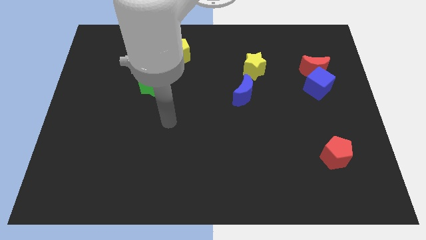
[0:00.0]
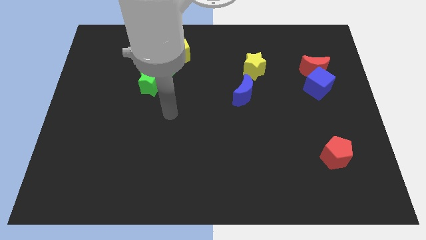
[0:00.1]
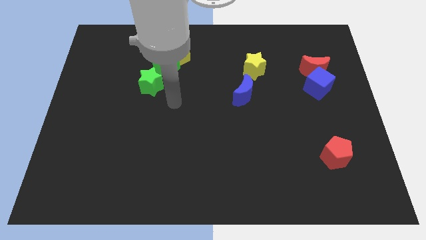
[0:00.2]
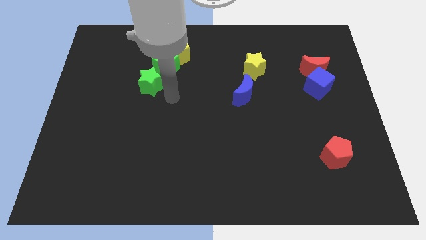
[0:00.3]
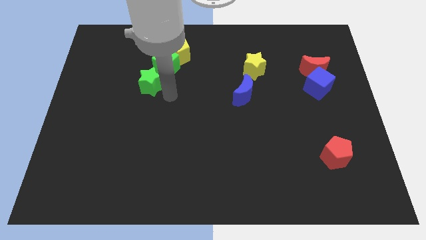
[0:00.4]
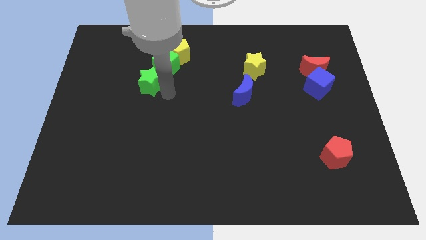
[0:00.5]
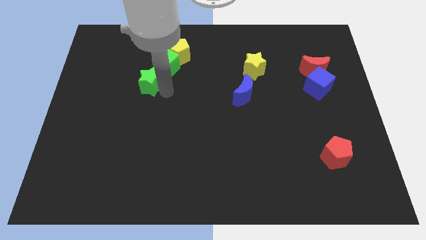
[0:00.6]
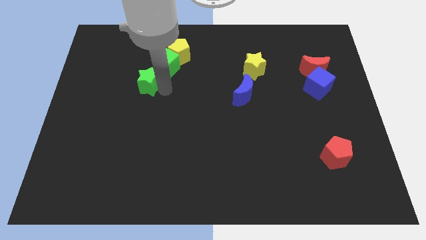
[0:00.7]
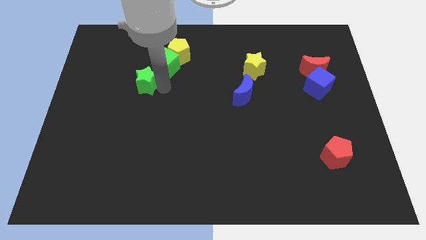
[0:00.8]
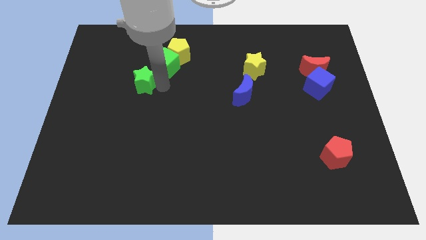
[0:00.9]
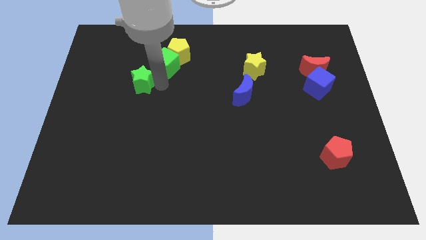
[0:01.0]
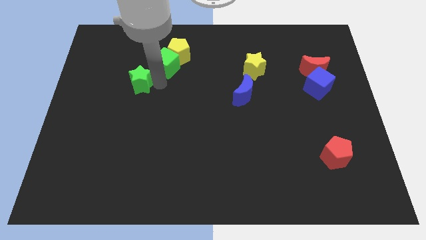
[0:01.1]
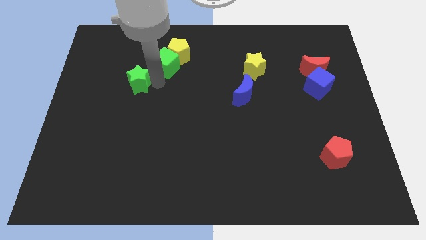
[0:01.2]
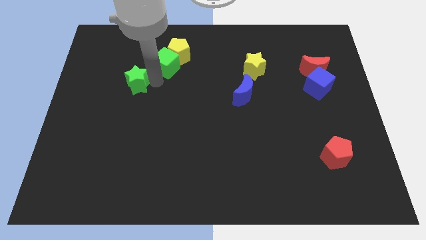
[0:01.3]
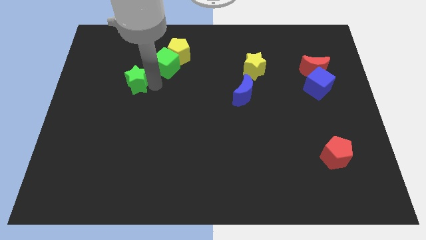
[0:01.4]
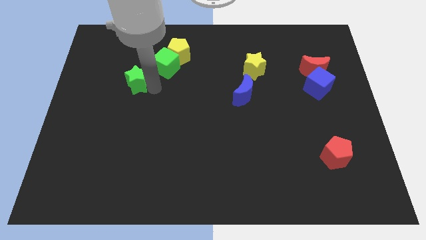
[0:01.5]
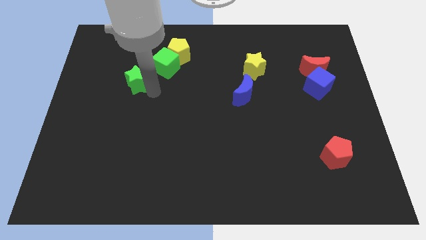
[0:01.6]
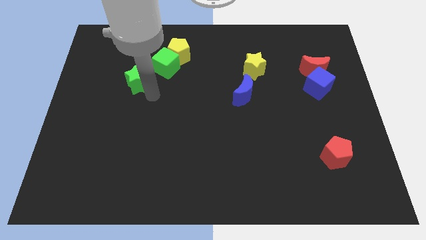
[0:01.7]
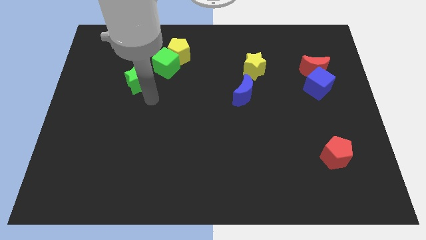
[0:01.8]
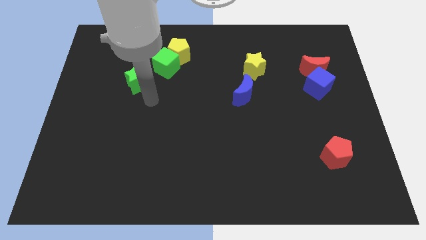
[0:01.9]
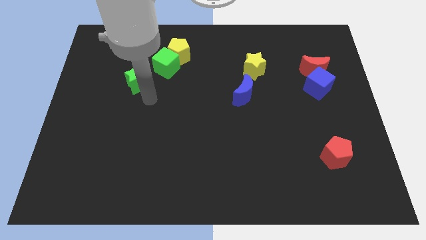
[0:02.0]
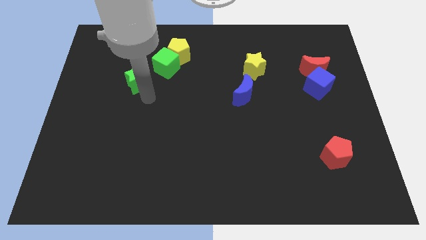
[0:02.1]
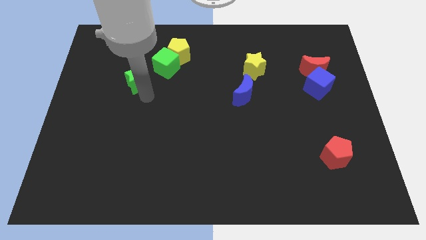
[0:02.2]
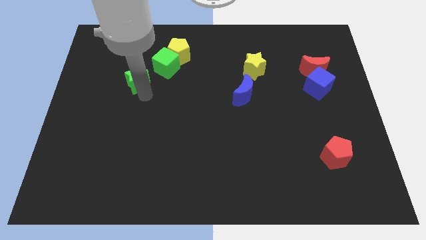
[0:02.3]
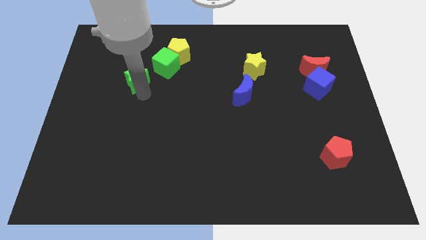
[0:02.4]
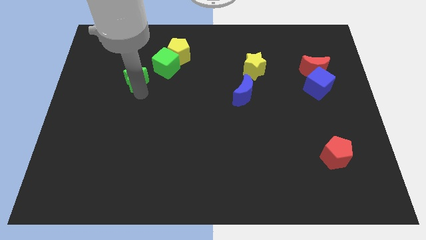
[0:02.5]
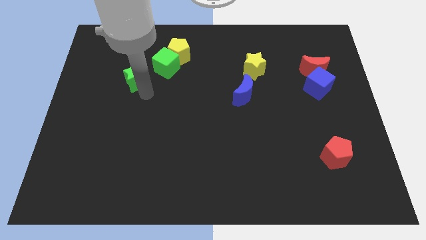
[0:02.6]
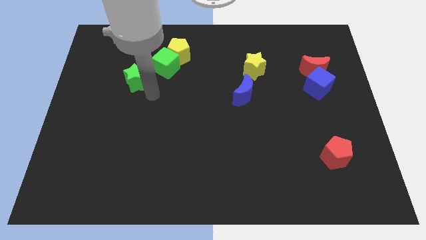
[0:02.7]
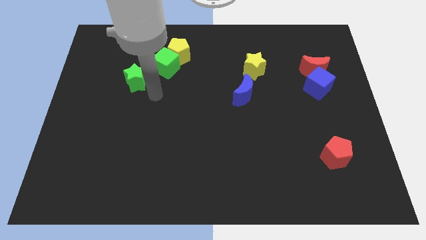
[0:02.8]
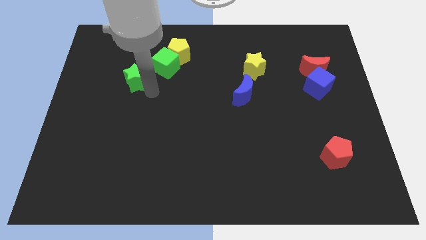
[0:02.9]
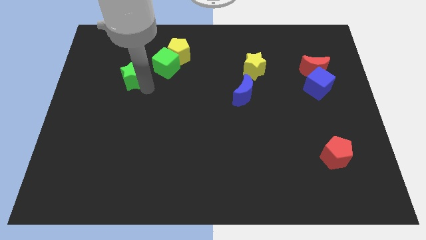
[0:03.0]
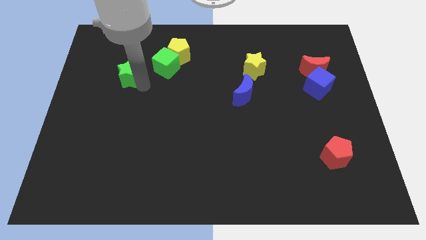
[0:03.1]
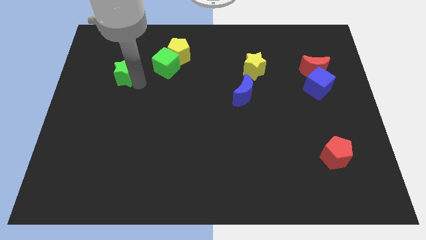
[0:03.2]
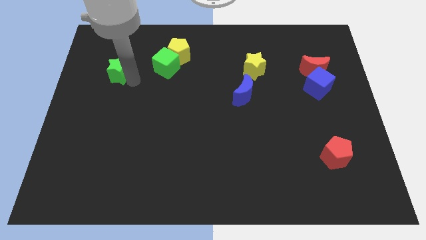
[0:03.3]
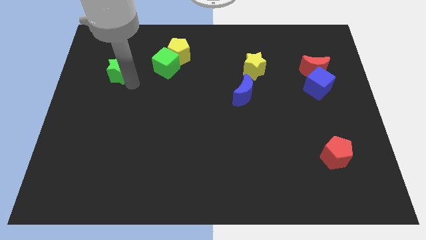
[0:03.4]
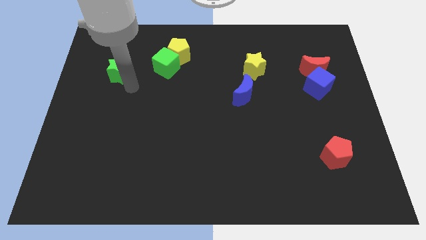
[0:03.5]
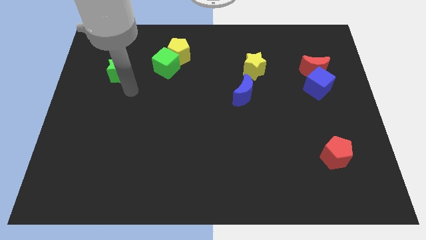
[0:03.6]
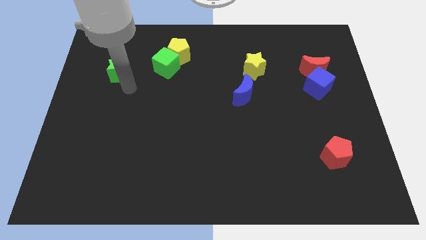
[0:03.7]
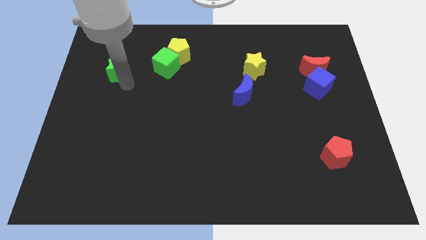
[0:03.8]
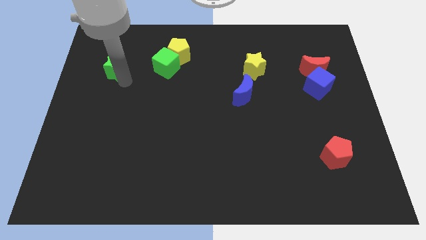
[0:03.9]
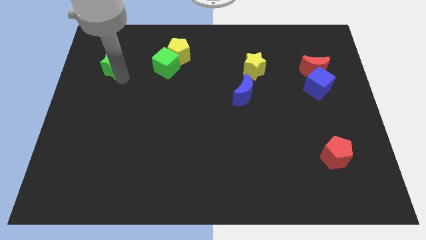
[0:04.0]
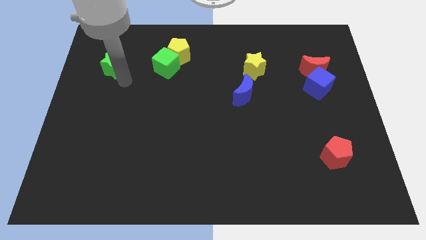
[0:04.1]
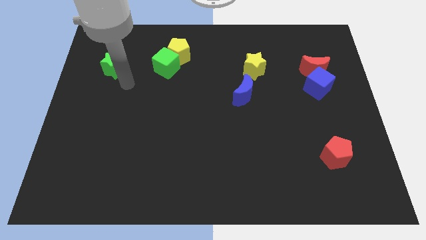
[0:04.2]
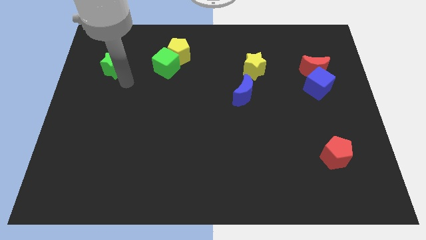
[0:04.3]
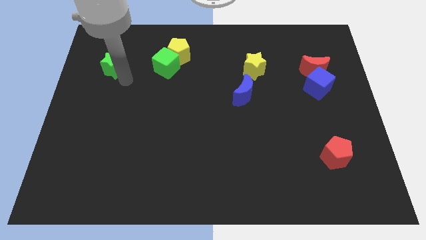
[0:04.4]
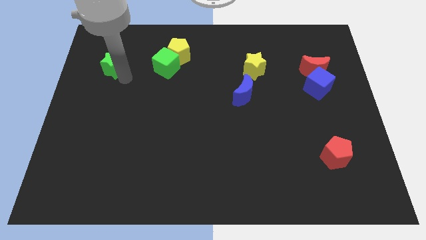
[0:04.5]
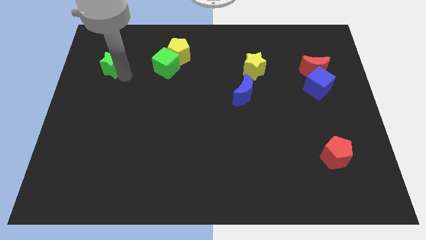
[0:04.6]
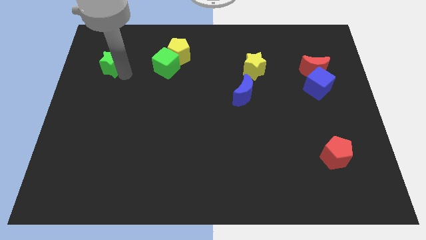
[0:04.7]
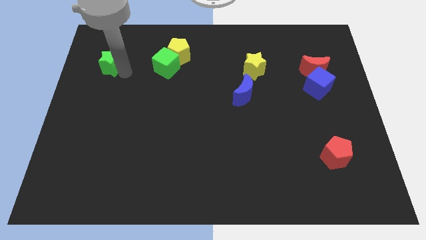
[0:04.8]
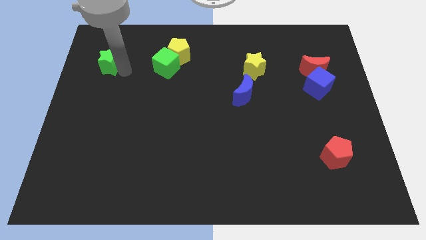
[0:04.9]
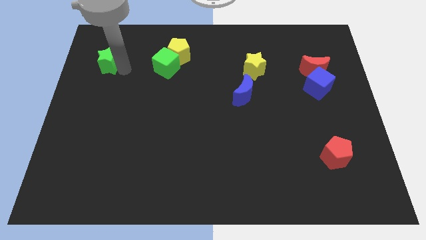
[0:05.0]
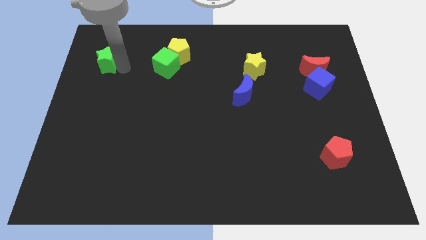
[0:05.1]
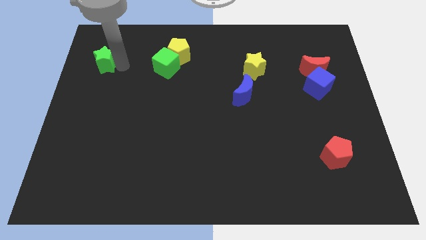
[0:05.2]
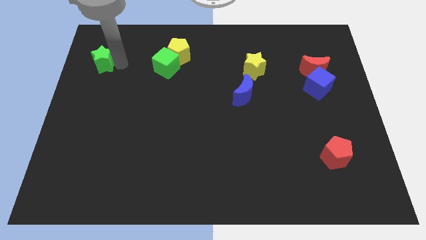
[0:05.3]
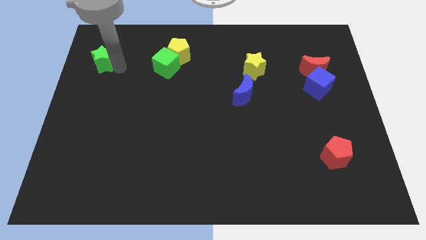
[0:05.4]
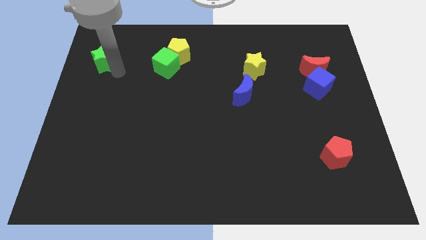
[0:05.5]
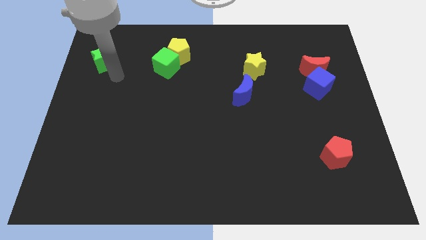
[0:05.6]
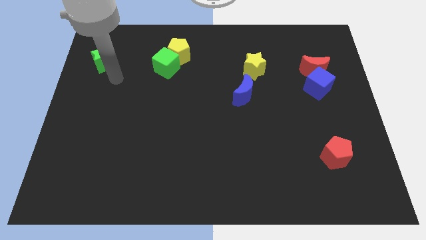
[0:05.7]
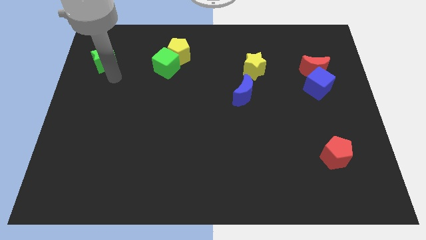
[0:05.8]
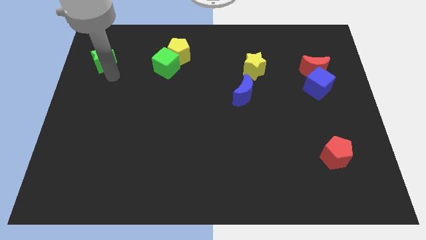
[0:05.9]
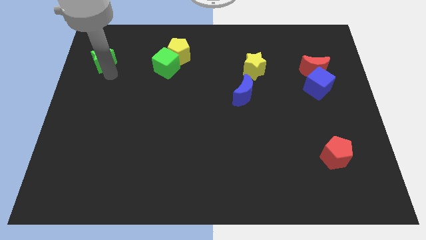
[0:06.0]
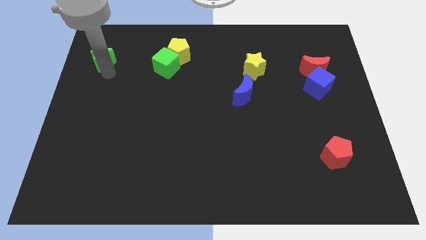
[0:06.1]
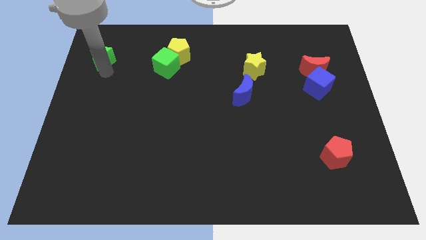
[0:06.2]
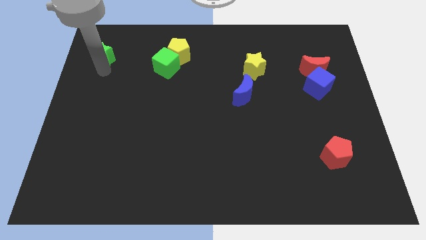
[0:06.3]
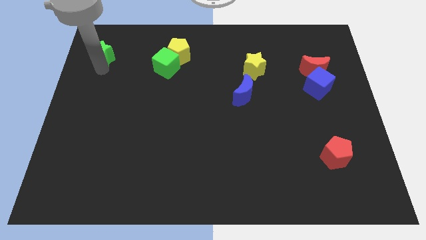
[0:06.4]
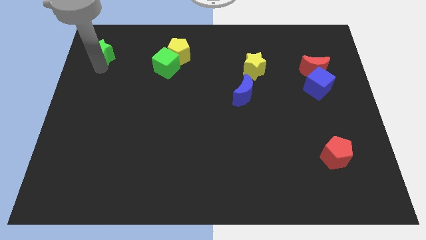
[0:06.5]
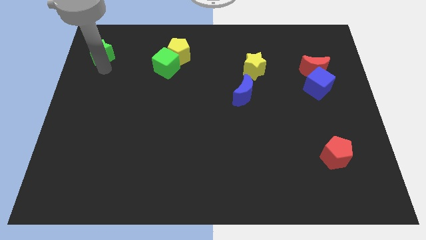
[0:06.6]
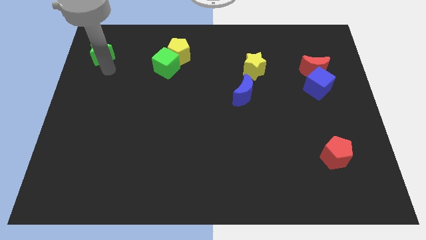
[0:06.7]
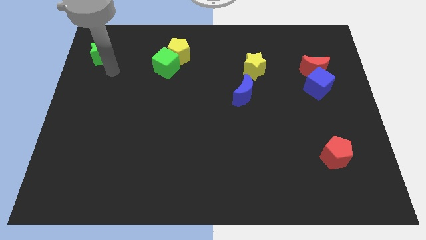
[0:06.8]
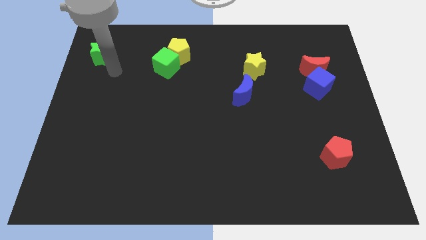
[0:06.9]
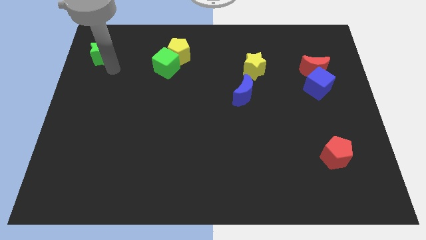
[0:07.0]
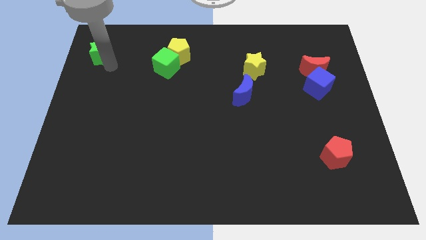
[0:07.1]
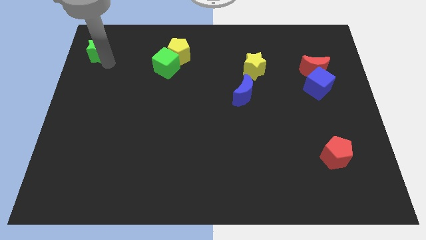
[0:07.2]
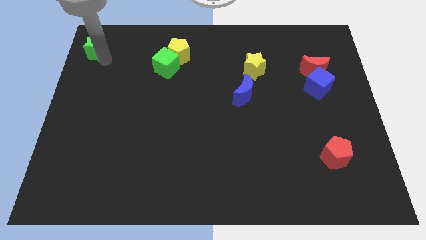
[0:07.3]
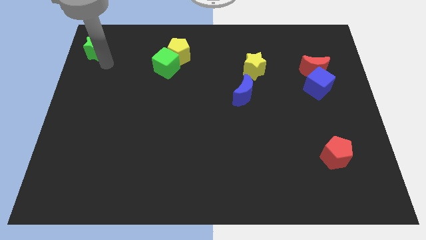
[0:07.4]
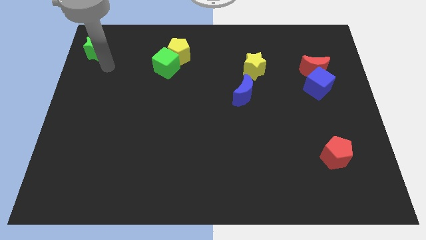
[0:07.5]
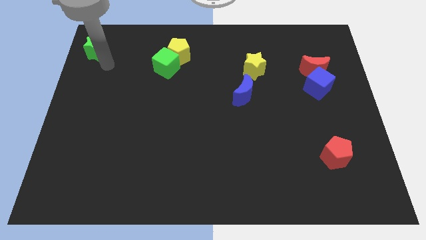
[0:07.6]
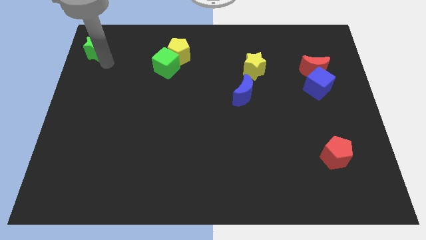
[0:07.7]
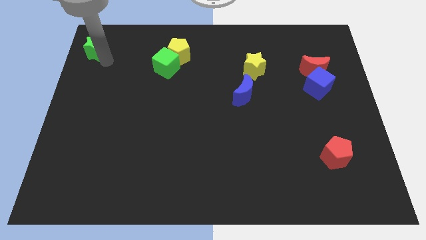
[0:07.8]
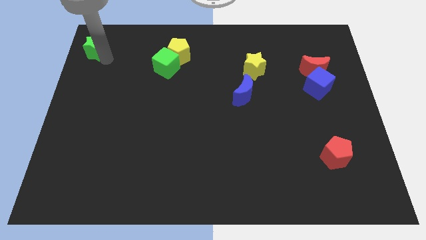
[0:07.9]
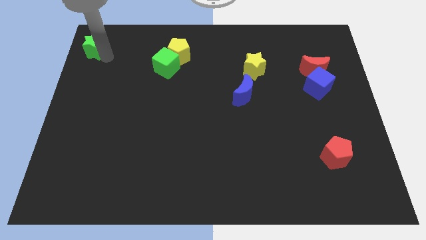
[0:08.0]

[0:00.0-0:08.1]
slide the green star to the top left
